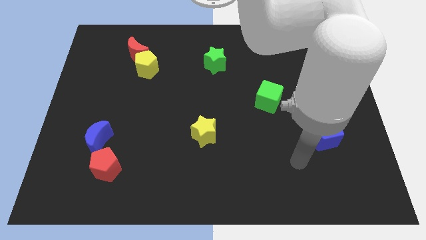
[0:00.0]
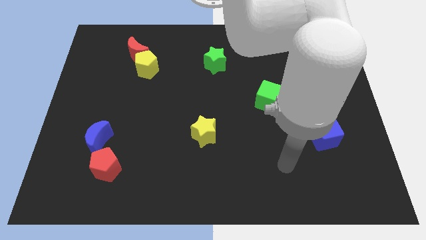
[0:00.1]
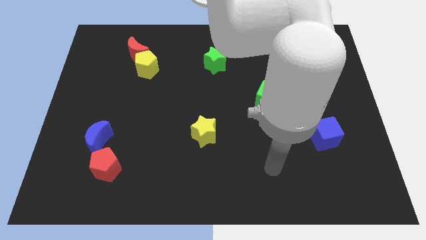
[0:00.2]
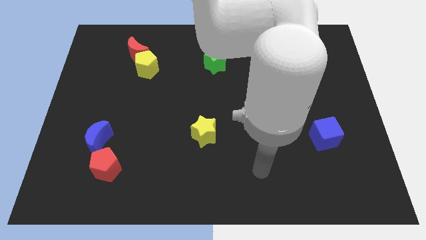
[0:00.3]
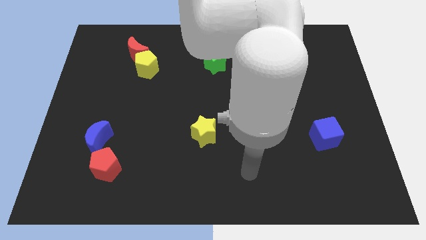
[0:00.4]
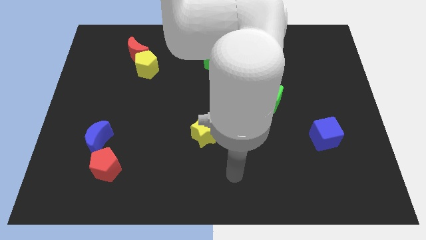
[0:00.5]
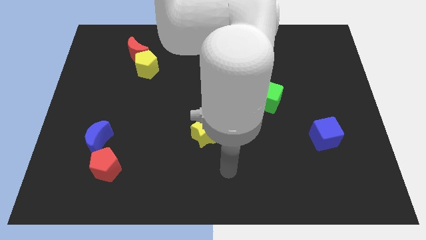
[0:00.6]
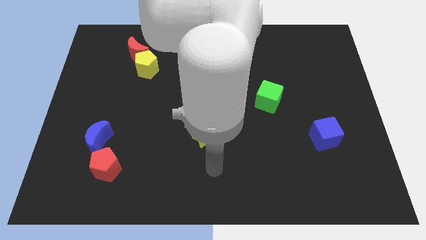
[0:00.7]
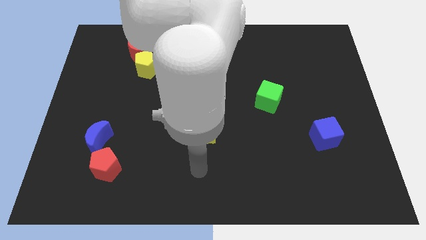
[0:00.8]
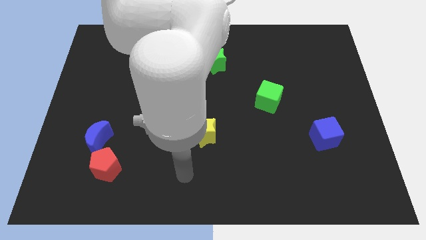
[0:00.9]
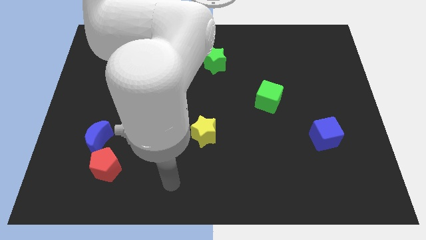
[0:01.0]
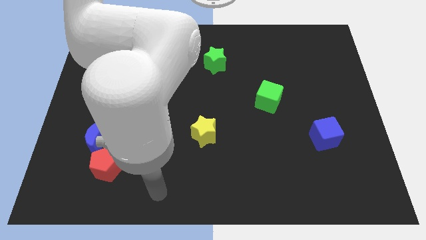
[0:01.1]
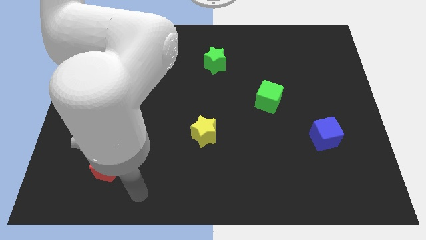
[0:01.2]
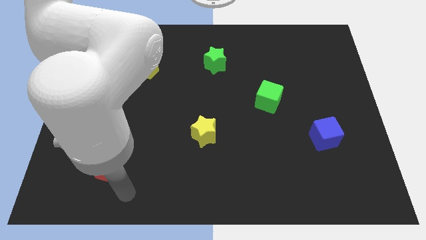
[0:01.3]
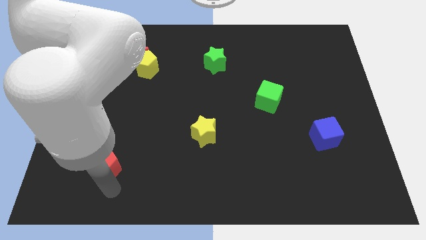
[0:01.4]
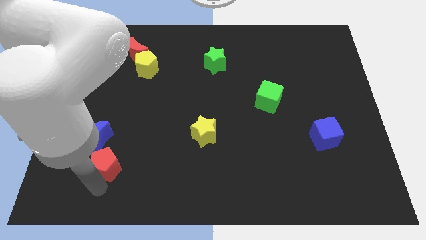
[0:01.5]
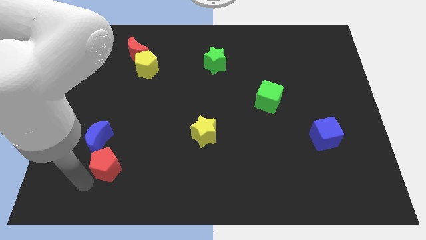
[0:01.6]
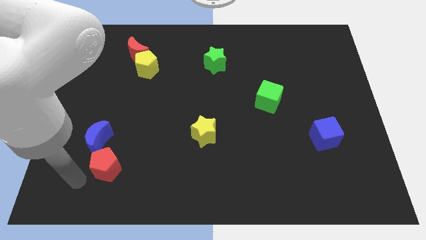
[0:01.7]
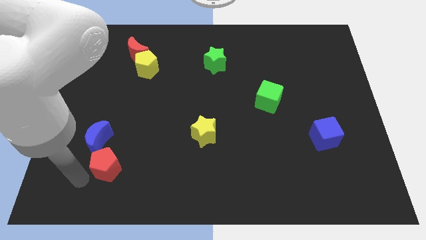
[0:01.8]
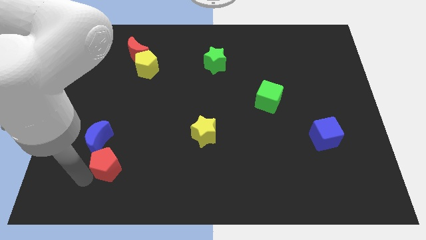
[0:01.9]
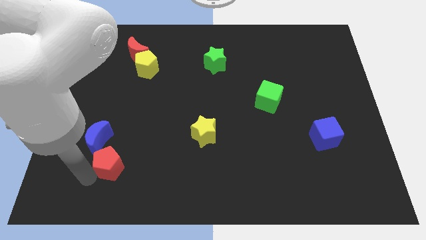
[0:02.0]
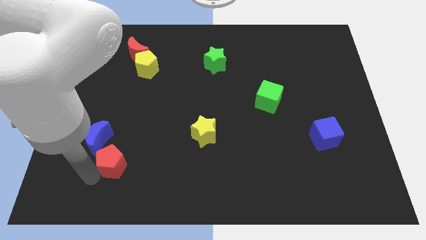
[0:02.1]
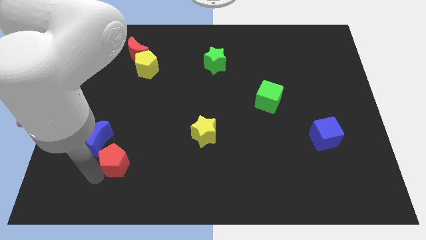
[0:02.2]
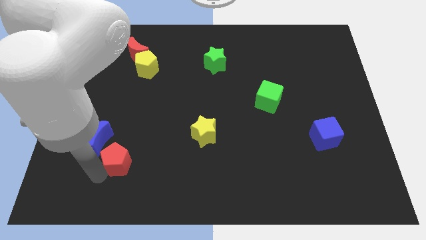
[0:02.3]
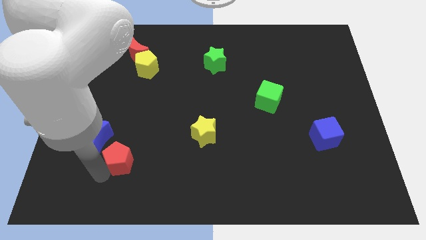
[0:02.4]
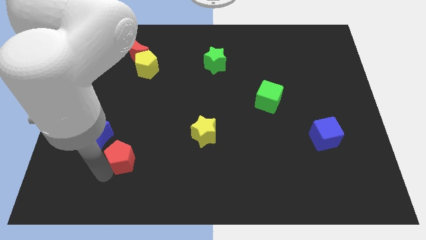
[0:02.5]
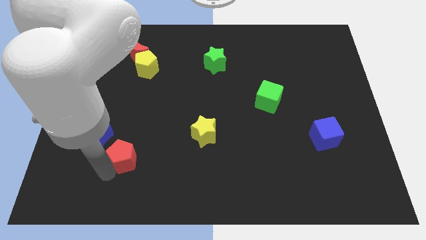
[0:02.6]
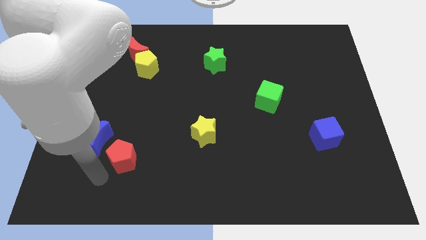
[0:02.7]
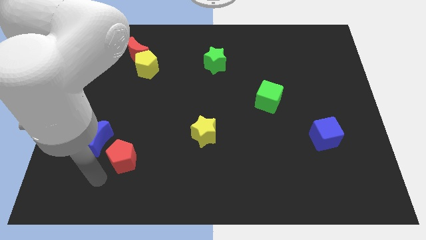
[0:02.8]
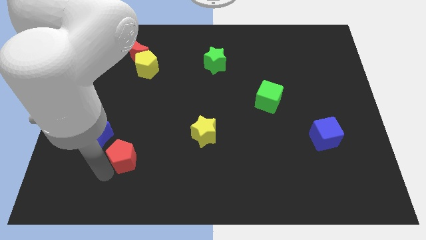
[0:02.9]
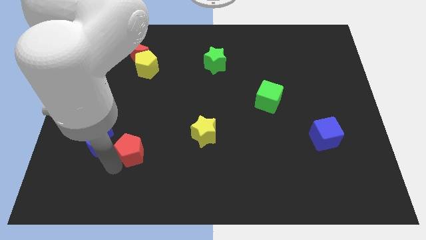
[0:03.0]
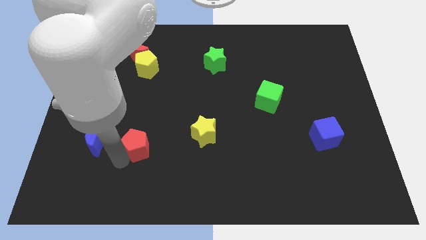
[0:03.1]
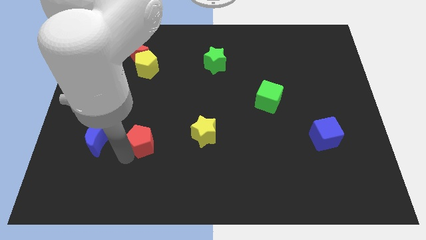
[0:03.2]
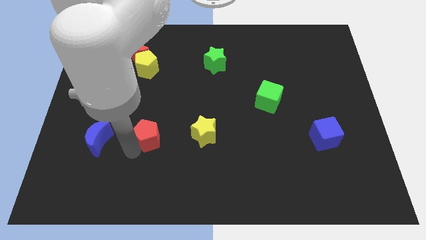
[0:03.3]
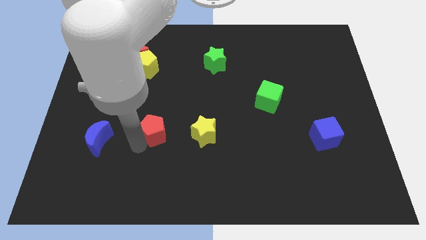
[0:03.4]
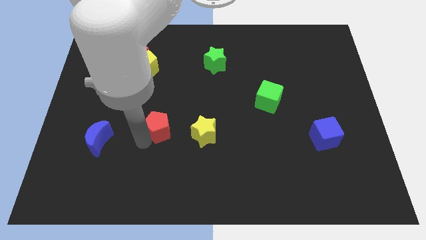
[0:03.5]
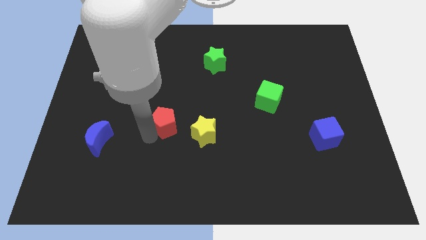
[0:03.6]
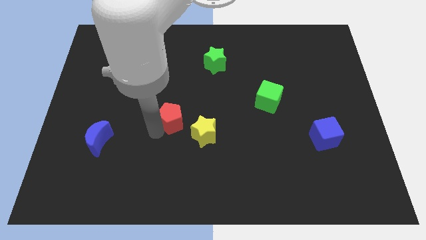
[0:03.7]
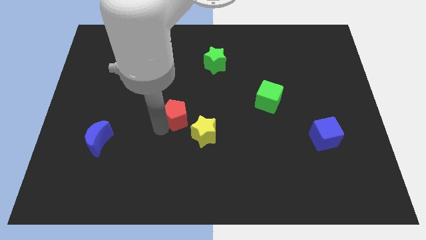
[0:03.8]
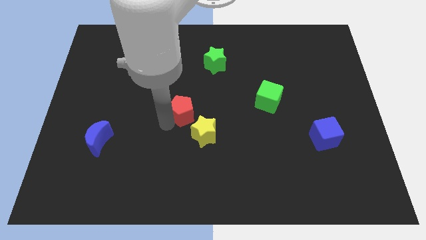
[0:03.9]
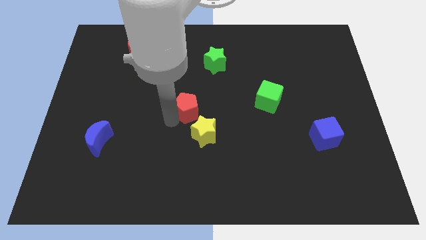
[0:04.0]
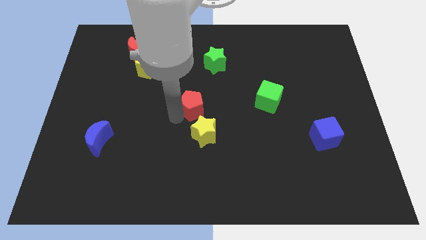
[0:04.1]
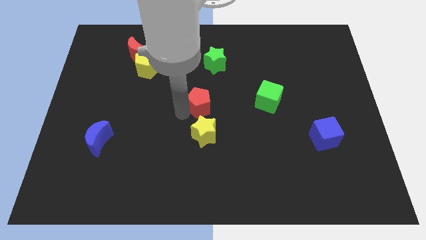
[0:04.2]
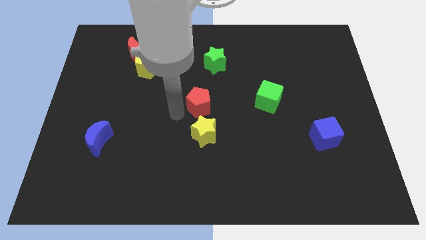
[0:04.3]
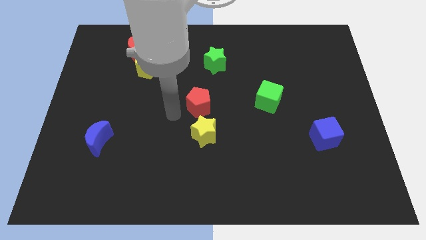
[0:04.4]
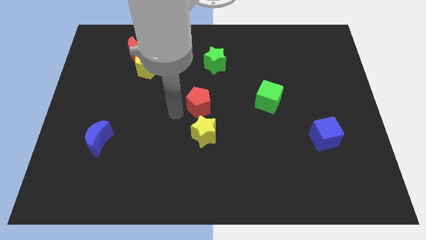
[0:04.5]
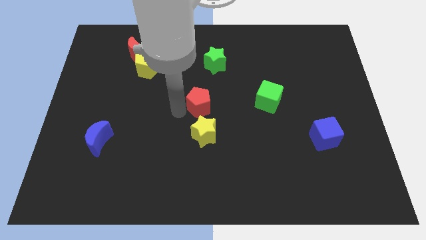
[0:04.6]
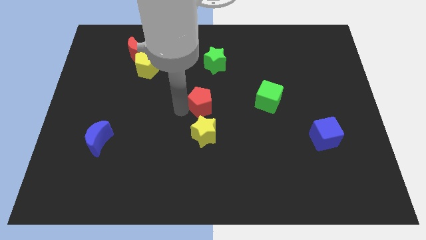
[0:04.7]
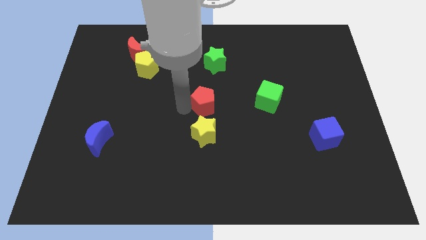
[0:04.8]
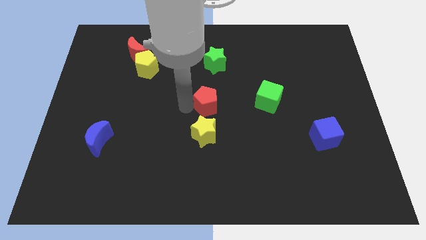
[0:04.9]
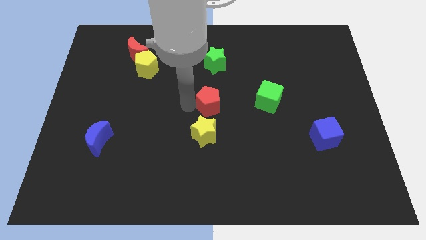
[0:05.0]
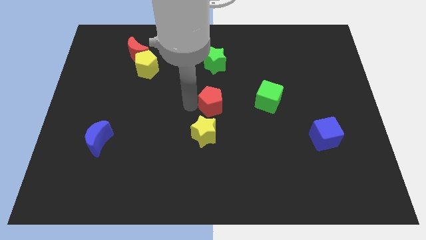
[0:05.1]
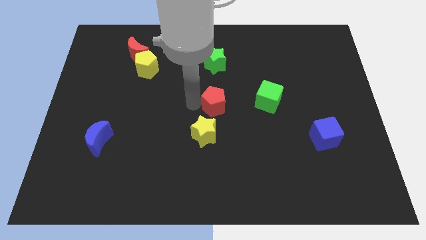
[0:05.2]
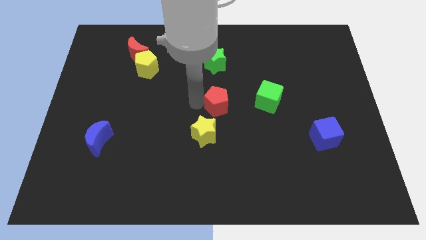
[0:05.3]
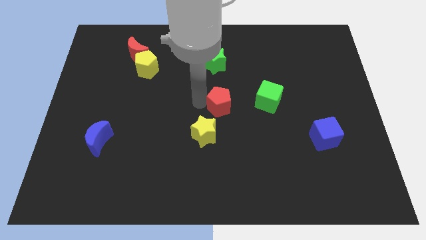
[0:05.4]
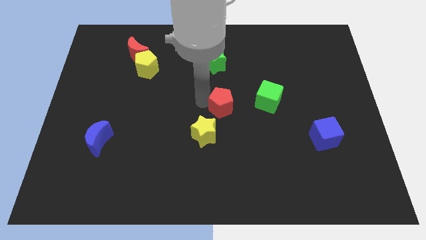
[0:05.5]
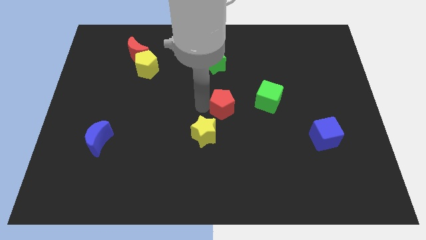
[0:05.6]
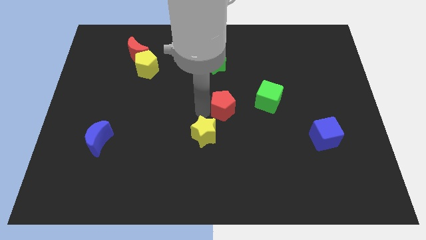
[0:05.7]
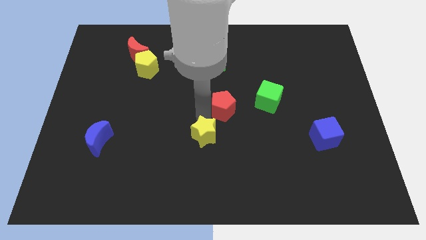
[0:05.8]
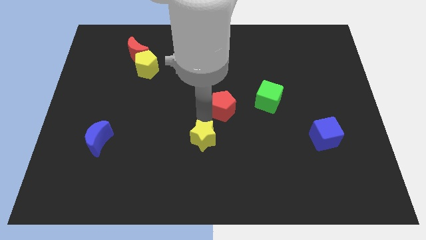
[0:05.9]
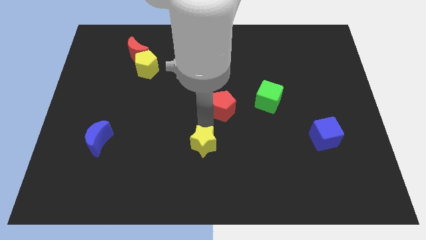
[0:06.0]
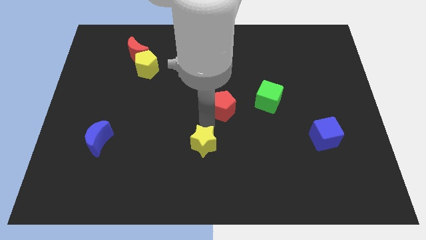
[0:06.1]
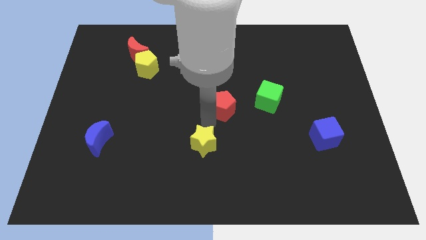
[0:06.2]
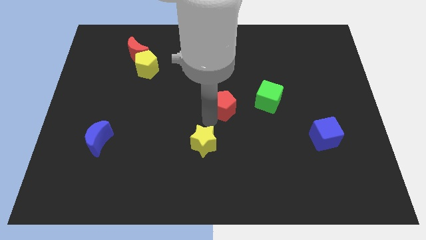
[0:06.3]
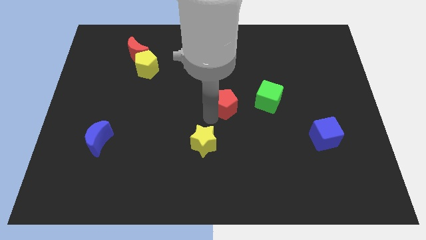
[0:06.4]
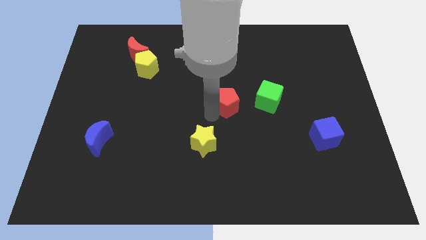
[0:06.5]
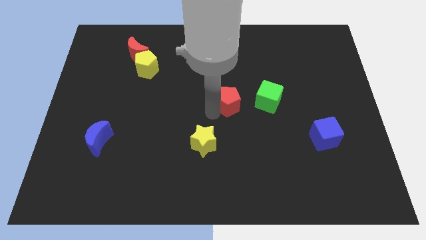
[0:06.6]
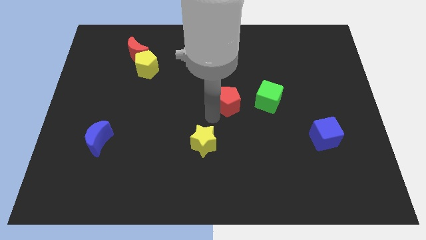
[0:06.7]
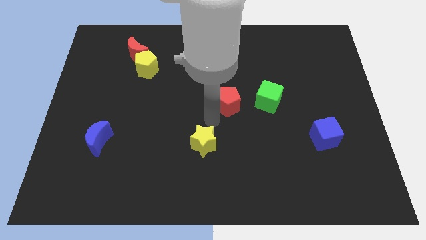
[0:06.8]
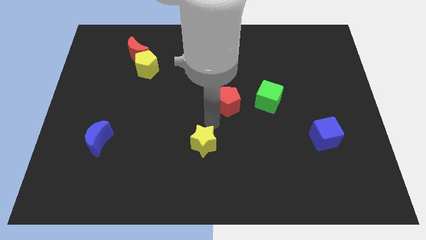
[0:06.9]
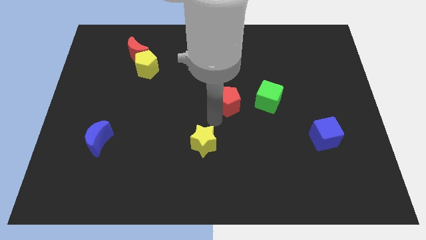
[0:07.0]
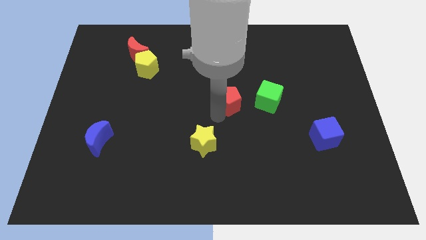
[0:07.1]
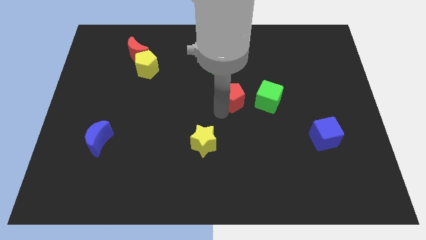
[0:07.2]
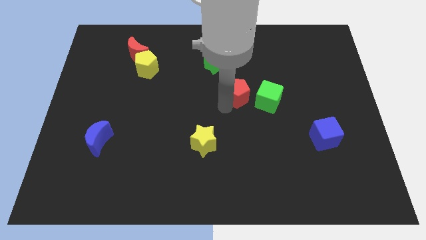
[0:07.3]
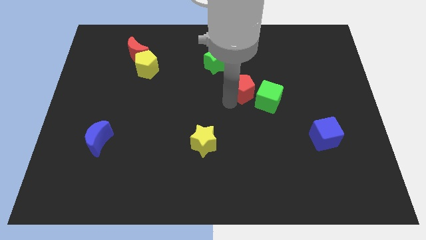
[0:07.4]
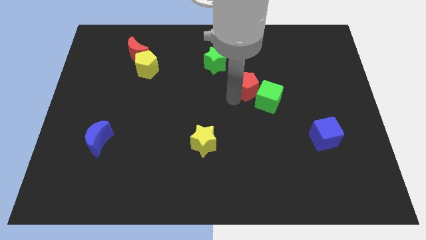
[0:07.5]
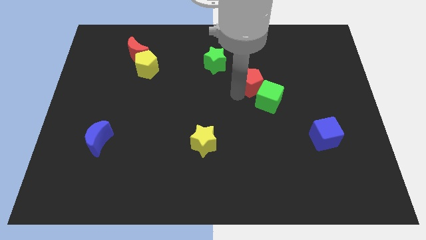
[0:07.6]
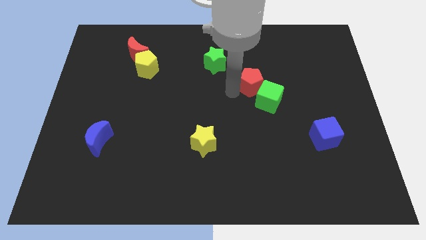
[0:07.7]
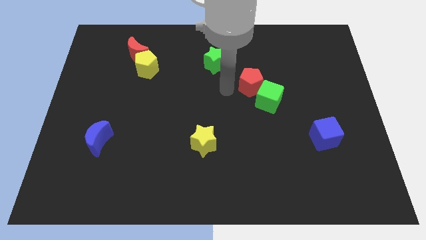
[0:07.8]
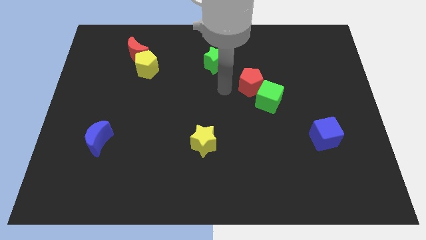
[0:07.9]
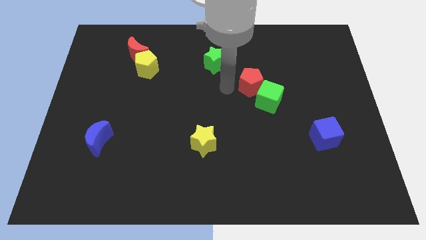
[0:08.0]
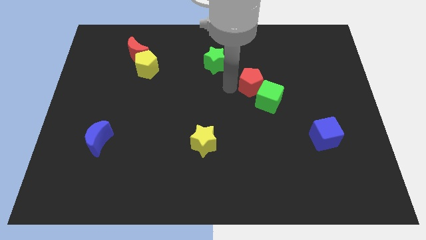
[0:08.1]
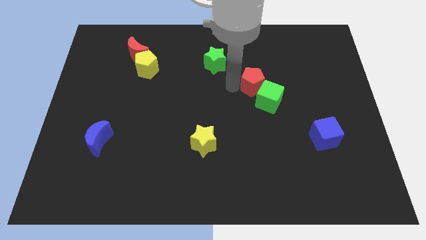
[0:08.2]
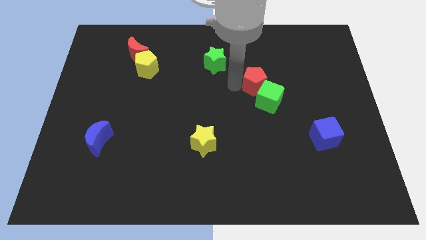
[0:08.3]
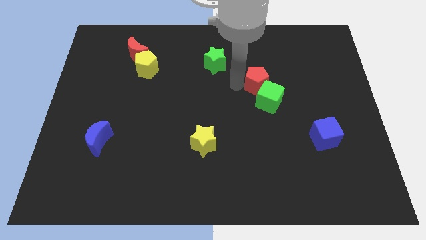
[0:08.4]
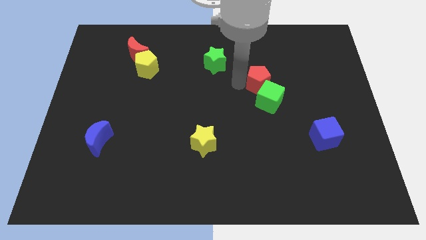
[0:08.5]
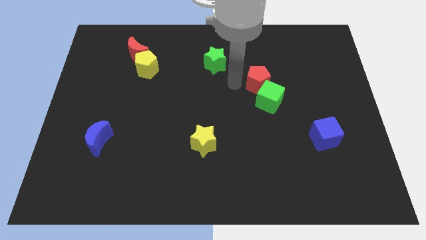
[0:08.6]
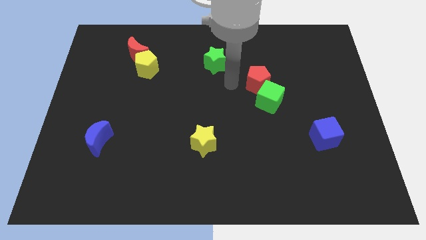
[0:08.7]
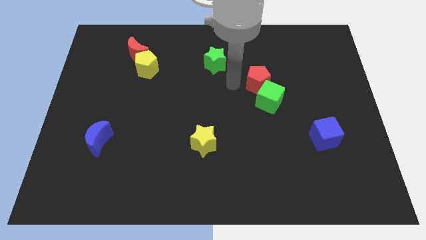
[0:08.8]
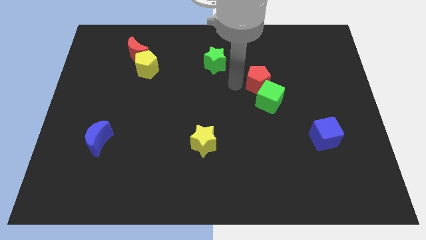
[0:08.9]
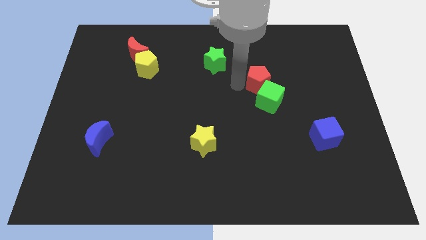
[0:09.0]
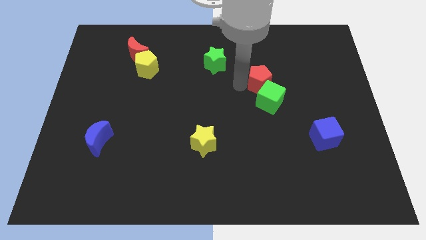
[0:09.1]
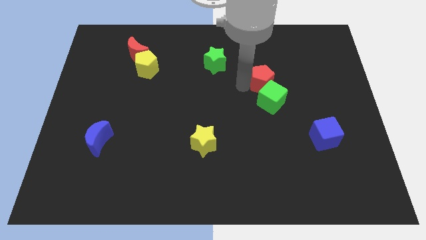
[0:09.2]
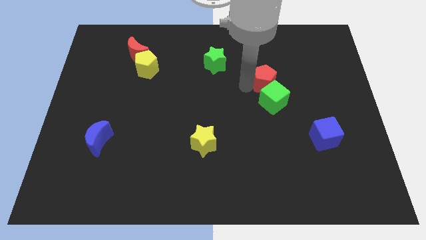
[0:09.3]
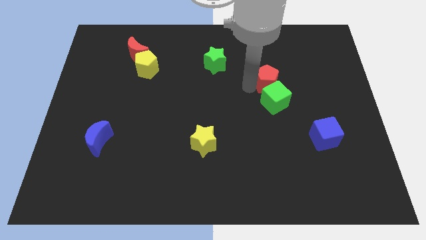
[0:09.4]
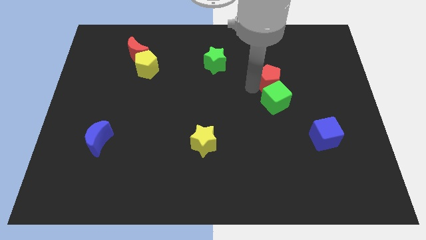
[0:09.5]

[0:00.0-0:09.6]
put the red pentagon to the top right of the green cube
